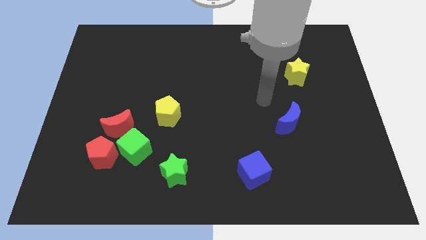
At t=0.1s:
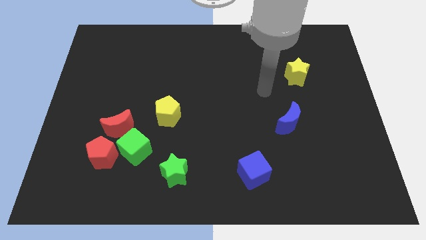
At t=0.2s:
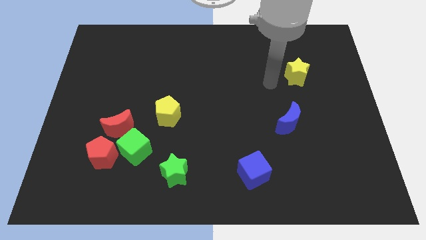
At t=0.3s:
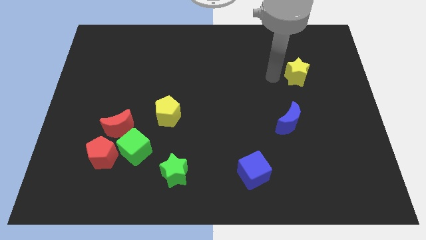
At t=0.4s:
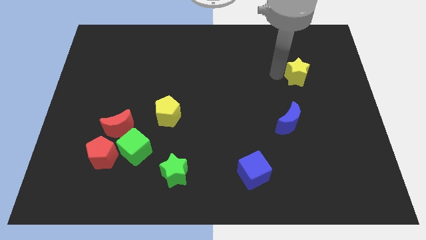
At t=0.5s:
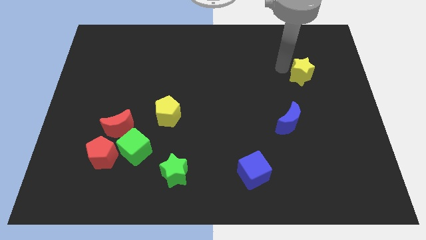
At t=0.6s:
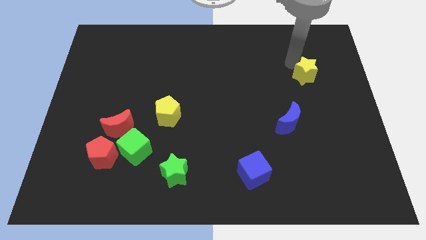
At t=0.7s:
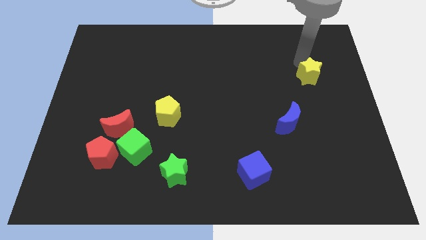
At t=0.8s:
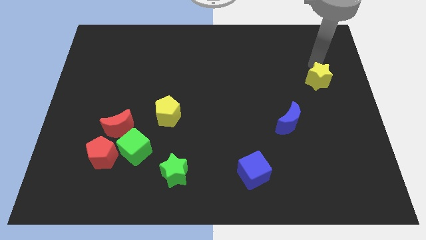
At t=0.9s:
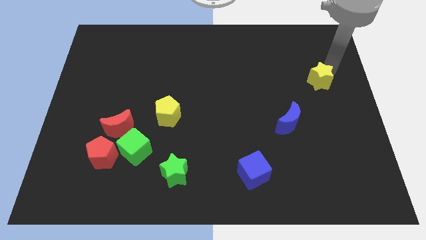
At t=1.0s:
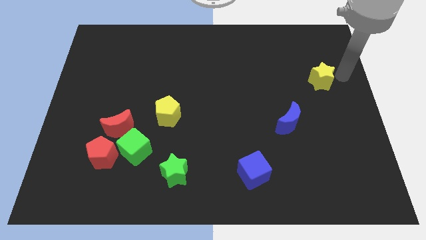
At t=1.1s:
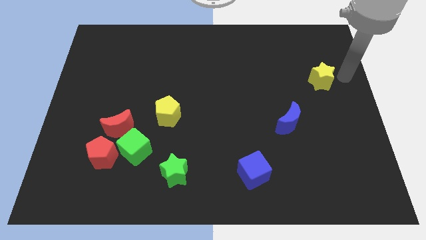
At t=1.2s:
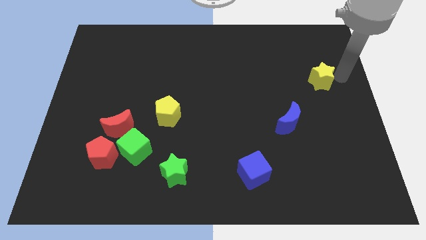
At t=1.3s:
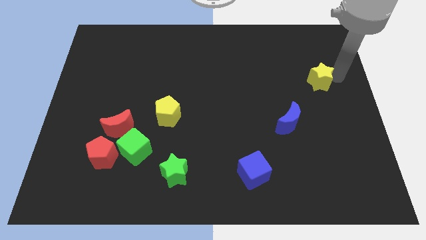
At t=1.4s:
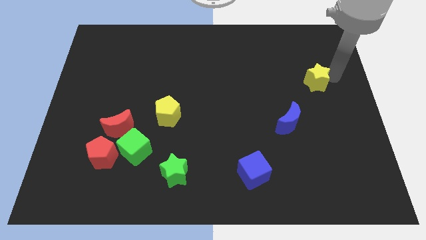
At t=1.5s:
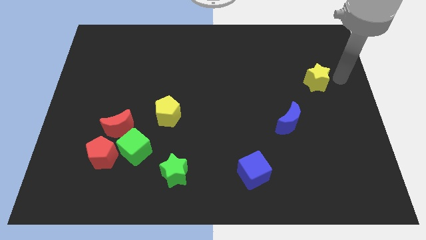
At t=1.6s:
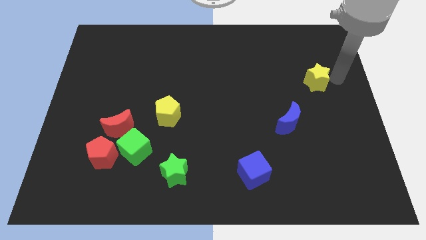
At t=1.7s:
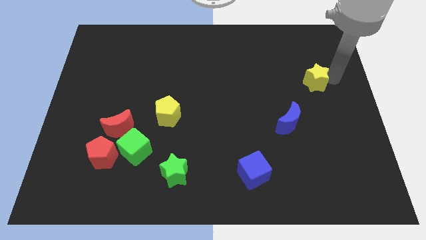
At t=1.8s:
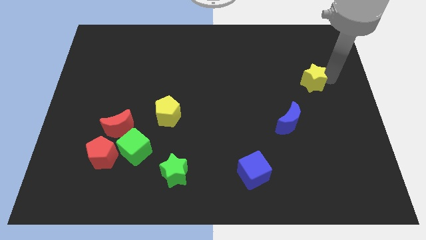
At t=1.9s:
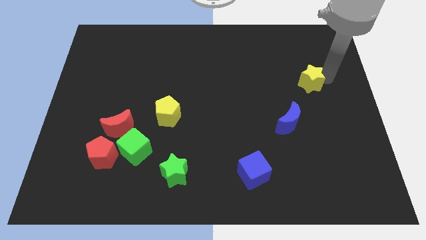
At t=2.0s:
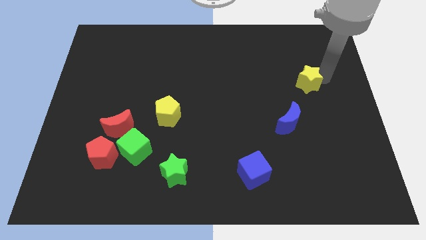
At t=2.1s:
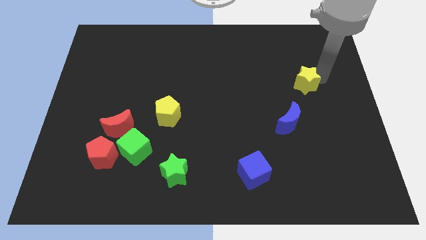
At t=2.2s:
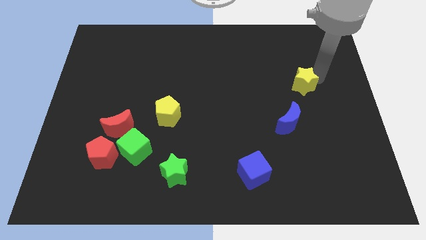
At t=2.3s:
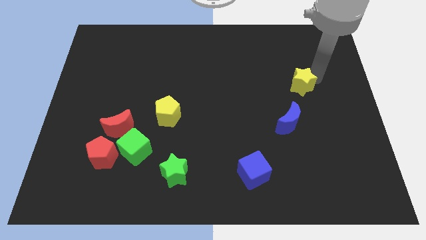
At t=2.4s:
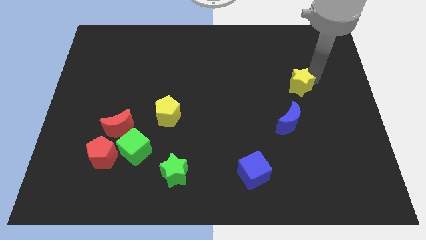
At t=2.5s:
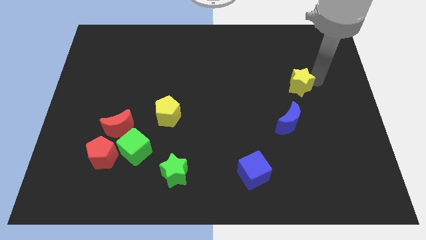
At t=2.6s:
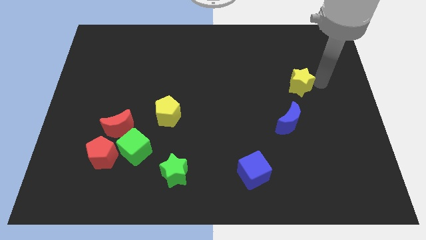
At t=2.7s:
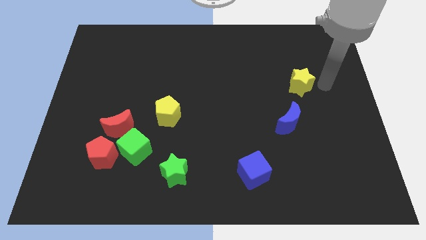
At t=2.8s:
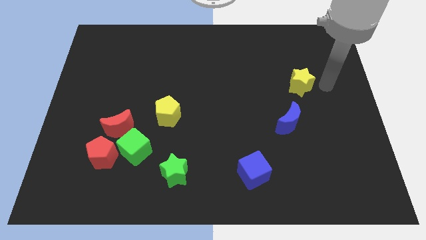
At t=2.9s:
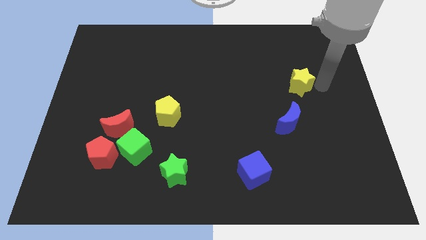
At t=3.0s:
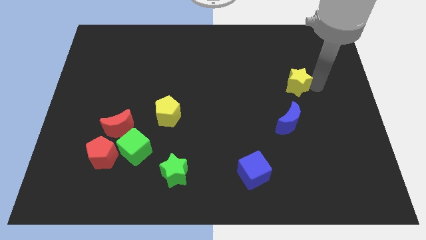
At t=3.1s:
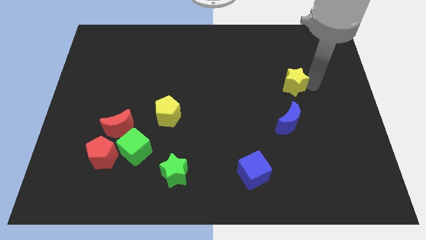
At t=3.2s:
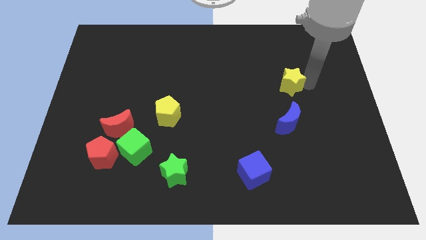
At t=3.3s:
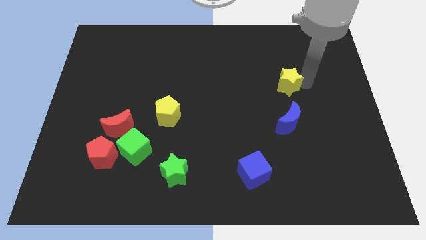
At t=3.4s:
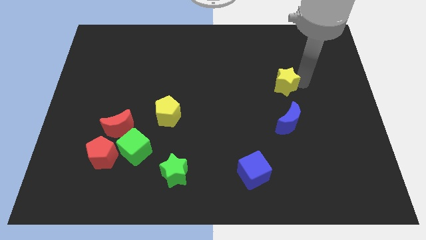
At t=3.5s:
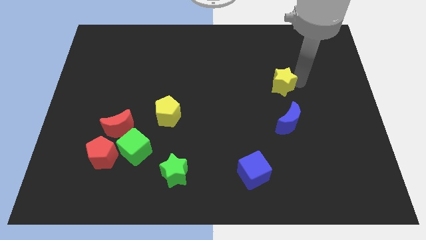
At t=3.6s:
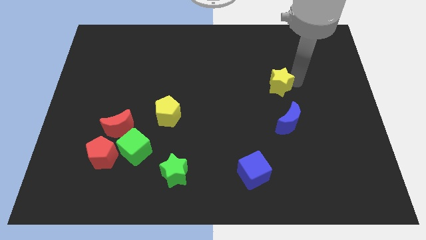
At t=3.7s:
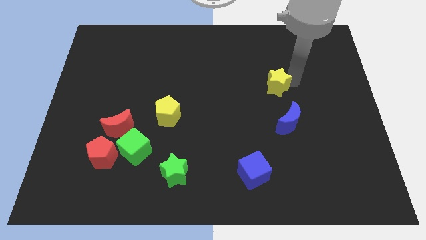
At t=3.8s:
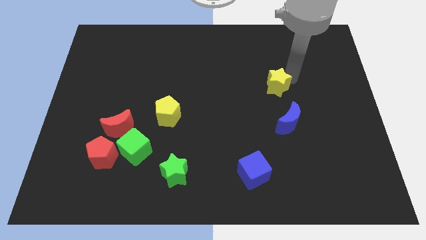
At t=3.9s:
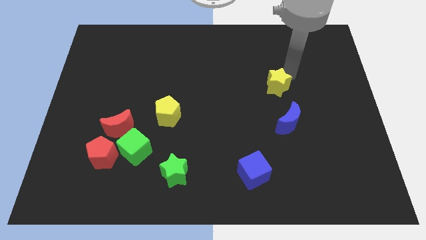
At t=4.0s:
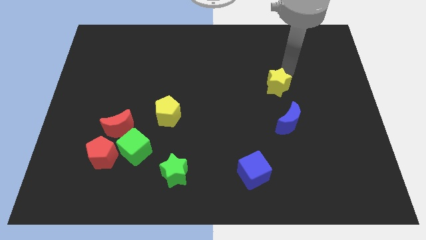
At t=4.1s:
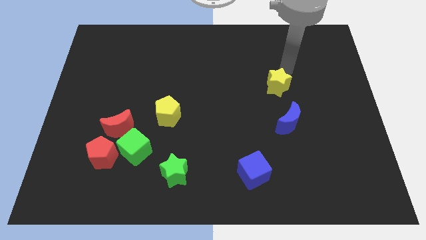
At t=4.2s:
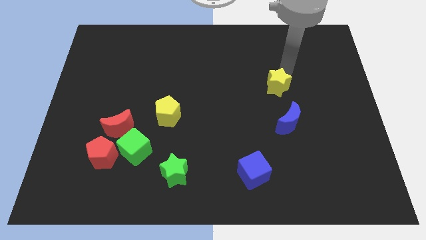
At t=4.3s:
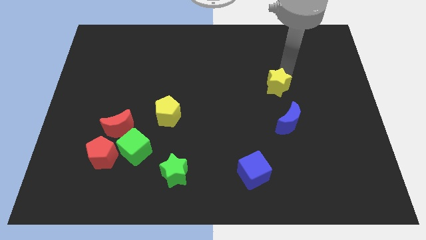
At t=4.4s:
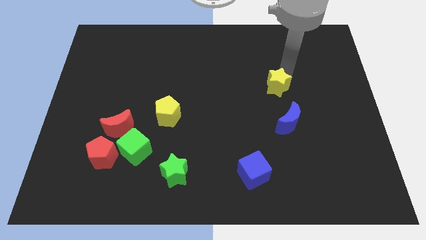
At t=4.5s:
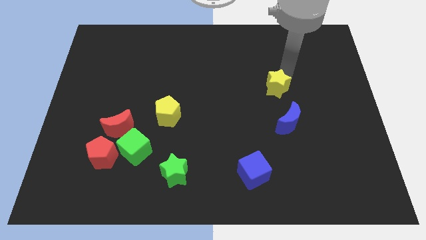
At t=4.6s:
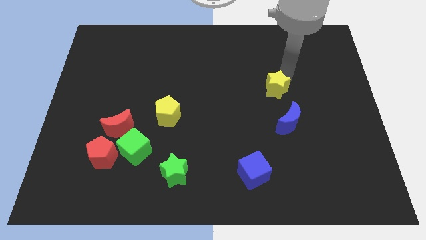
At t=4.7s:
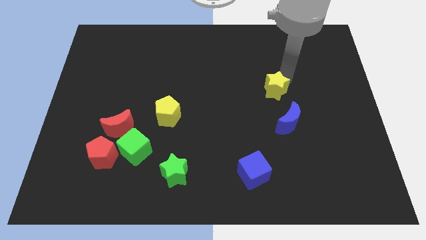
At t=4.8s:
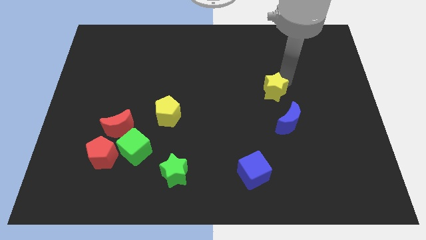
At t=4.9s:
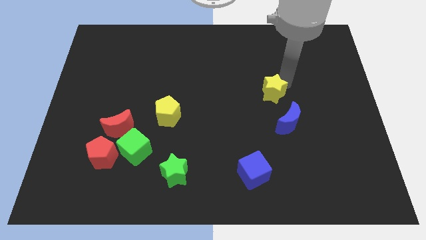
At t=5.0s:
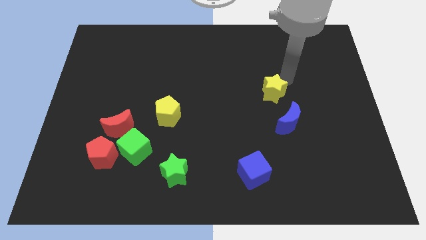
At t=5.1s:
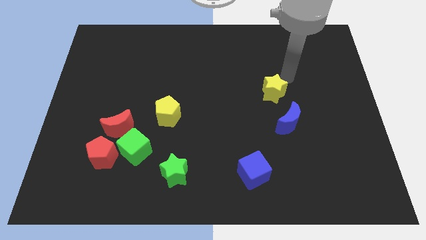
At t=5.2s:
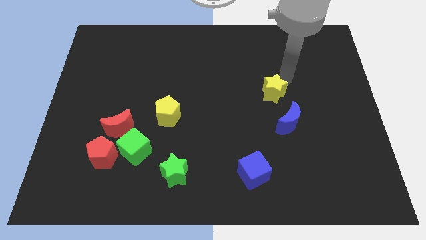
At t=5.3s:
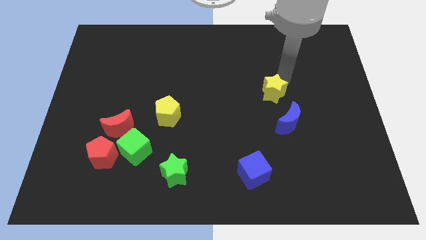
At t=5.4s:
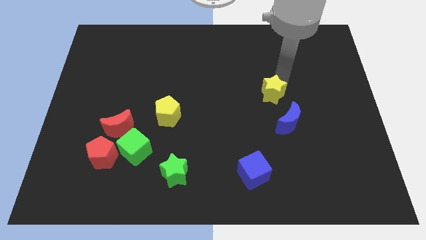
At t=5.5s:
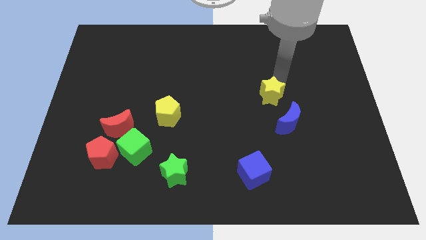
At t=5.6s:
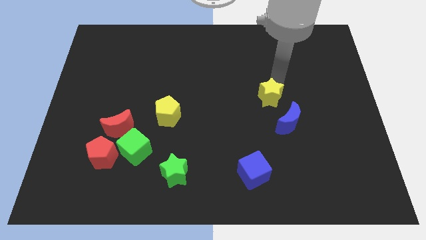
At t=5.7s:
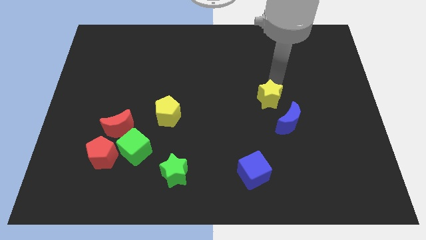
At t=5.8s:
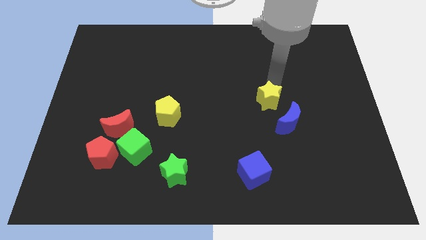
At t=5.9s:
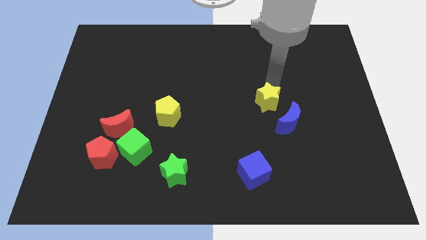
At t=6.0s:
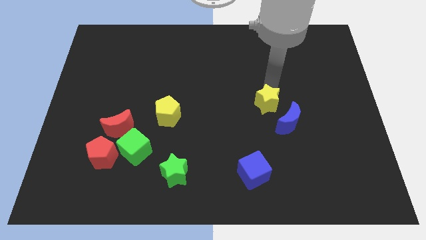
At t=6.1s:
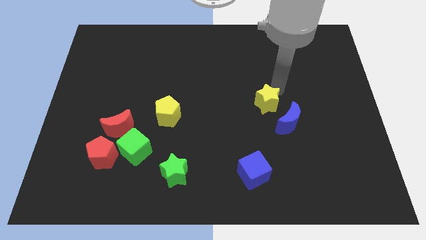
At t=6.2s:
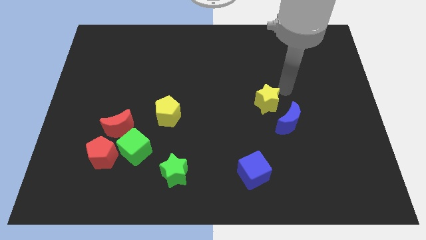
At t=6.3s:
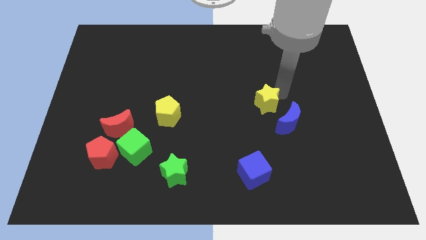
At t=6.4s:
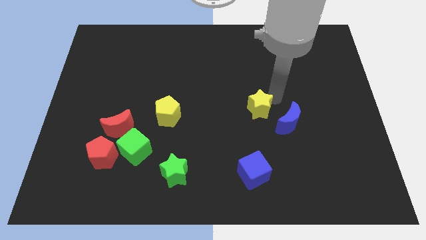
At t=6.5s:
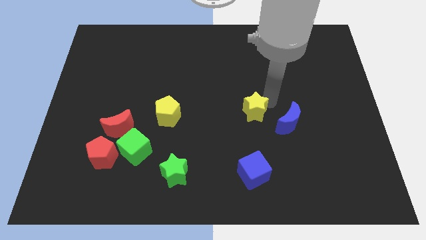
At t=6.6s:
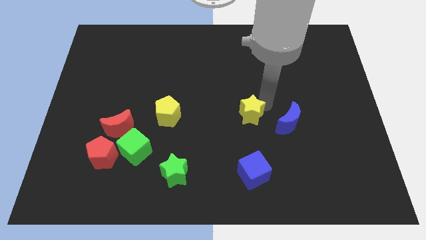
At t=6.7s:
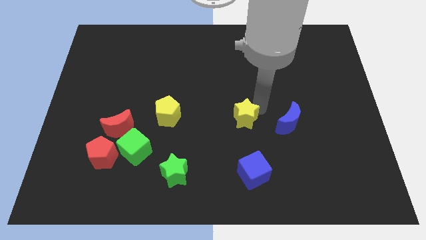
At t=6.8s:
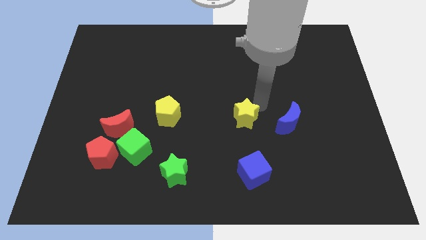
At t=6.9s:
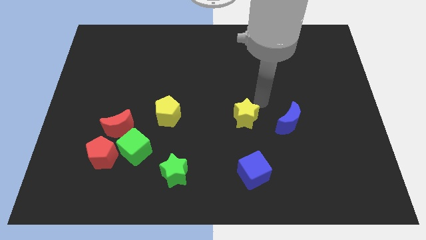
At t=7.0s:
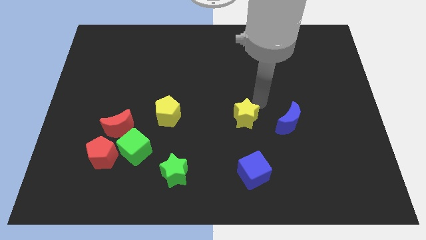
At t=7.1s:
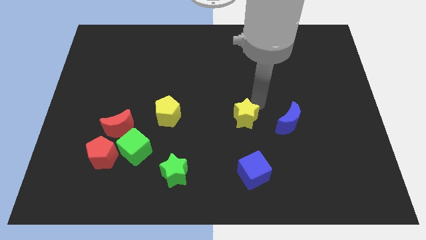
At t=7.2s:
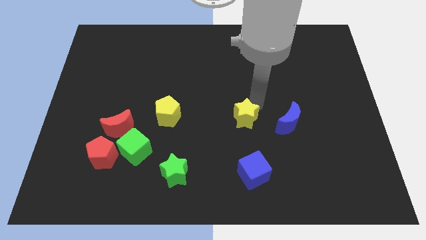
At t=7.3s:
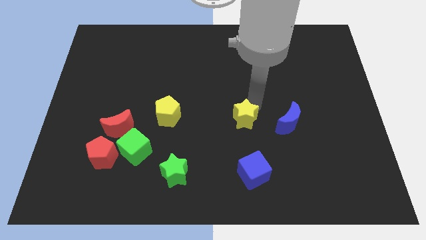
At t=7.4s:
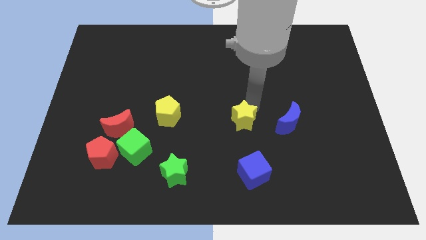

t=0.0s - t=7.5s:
slide the yellow star downwards and left

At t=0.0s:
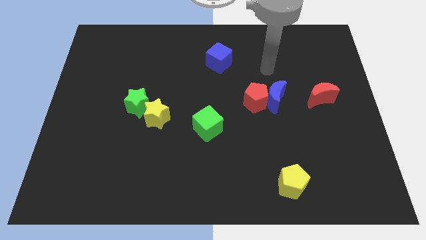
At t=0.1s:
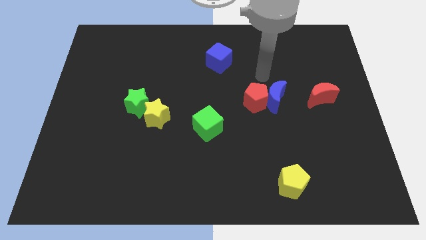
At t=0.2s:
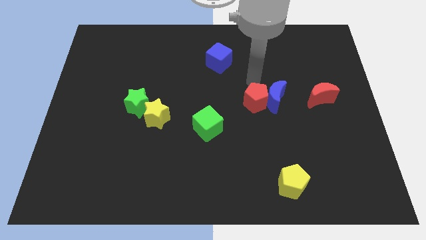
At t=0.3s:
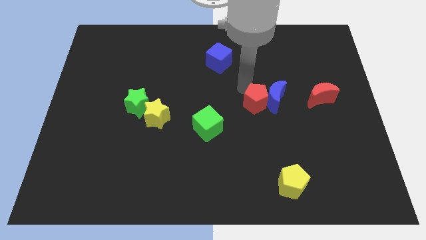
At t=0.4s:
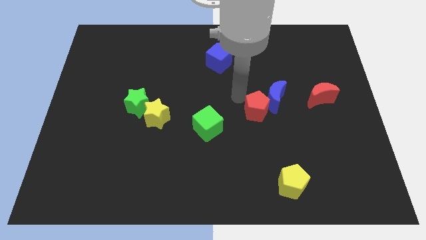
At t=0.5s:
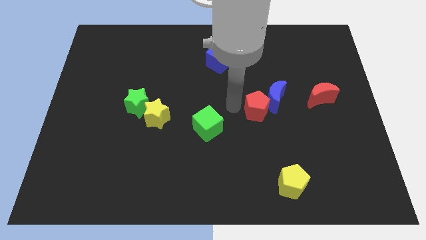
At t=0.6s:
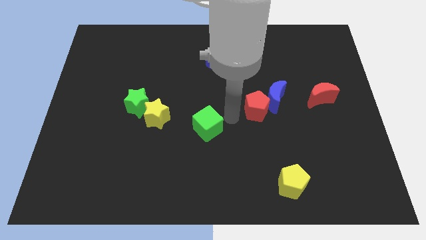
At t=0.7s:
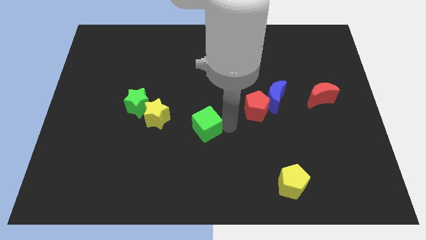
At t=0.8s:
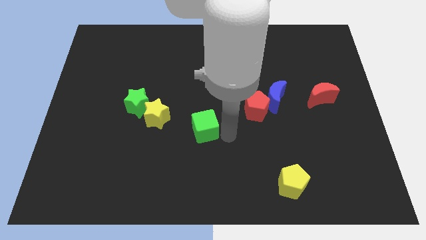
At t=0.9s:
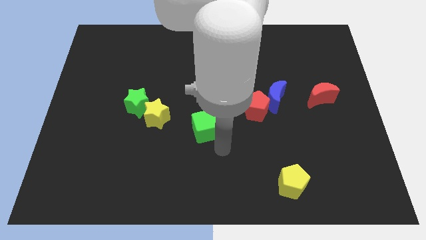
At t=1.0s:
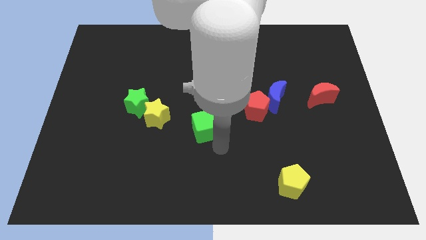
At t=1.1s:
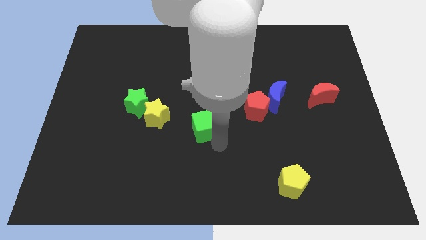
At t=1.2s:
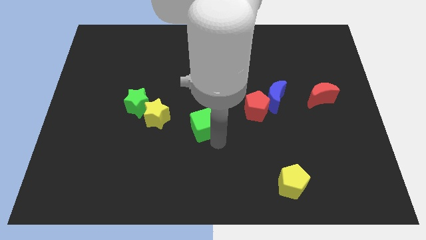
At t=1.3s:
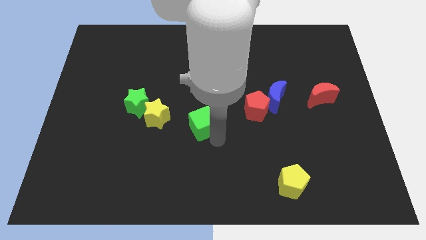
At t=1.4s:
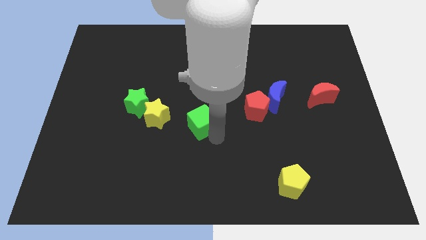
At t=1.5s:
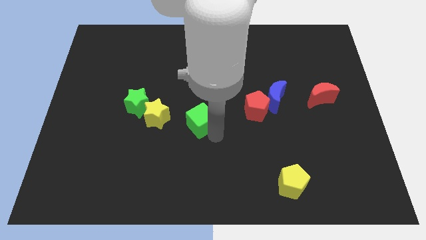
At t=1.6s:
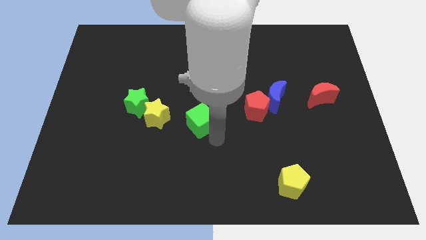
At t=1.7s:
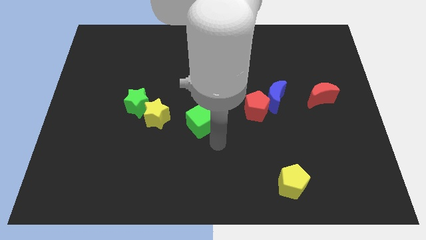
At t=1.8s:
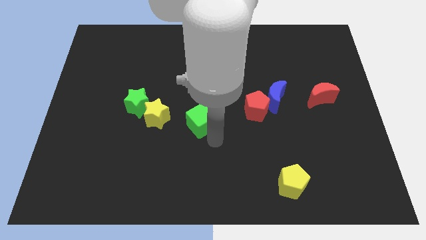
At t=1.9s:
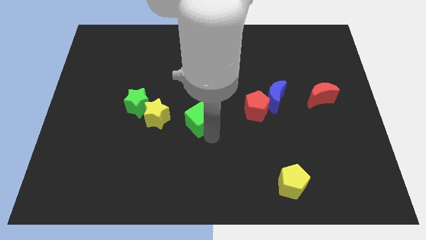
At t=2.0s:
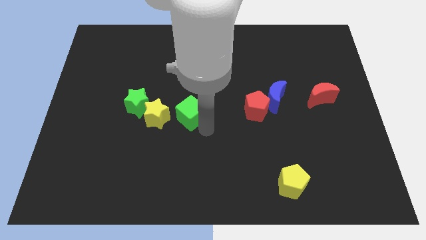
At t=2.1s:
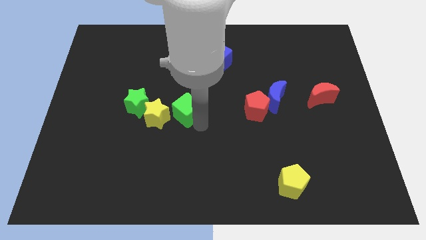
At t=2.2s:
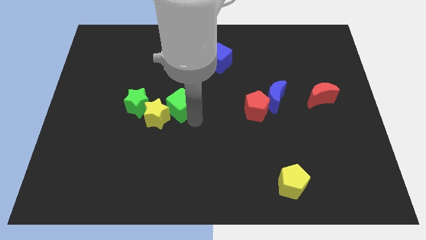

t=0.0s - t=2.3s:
slide the green cube upwards and left diagonally a bit
